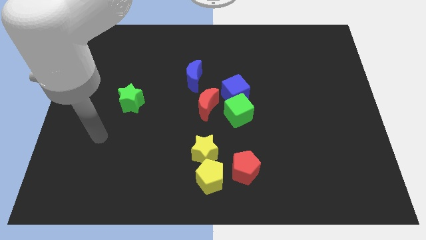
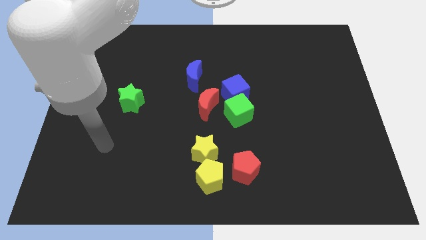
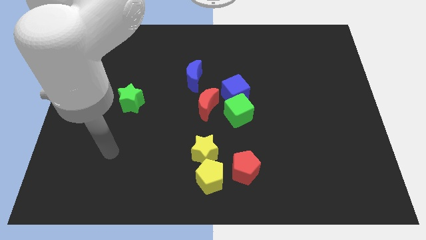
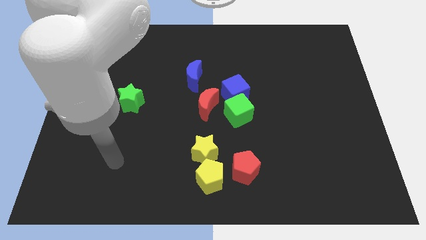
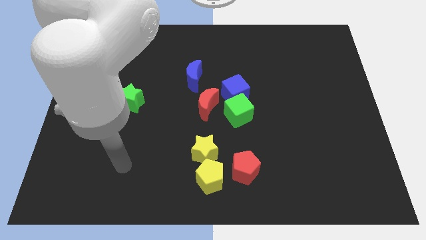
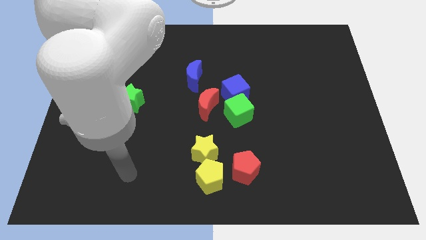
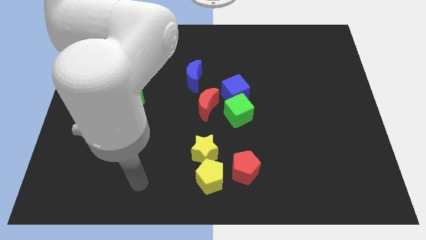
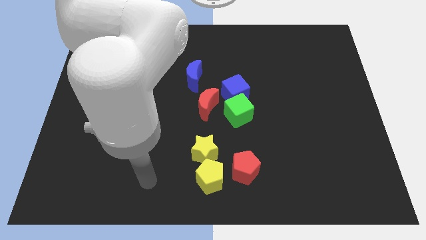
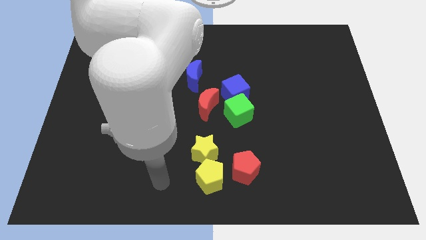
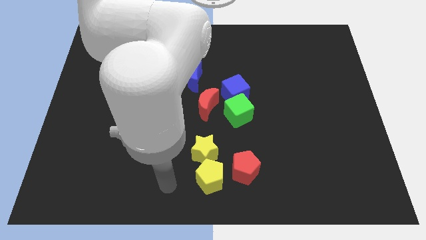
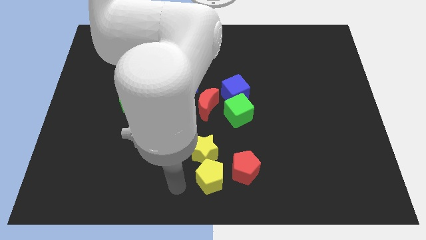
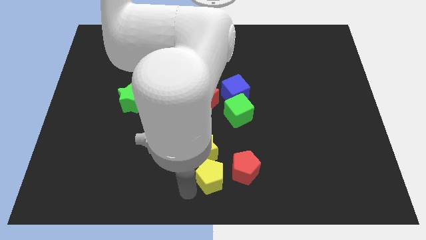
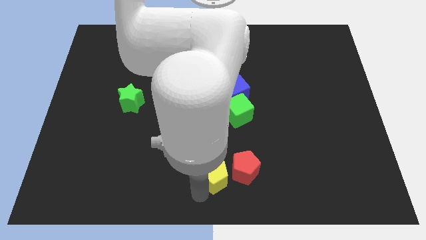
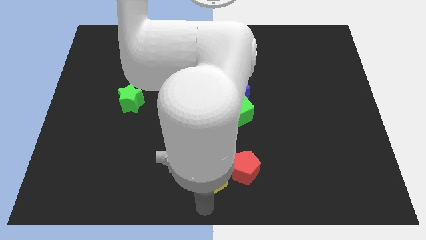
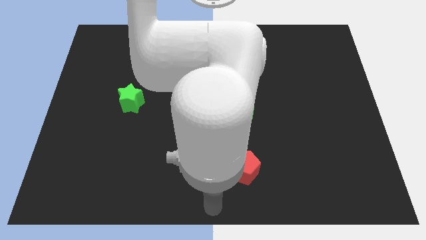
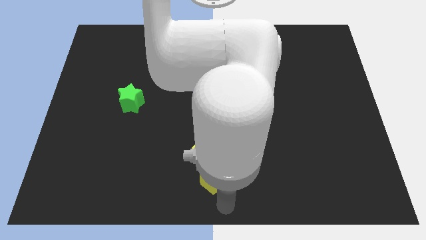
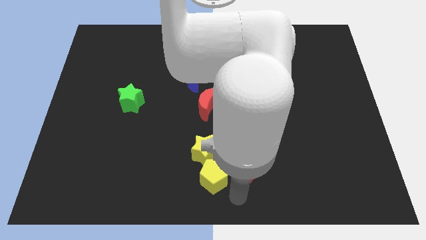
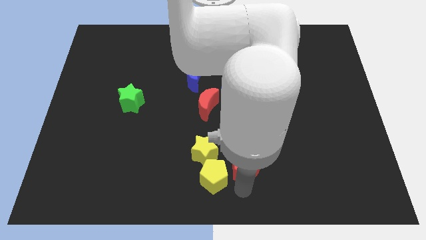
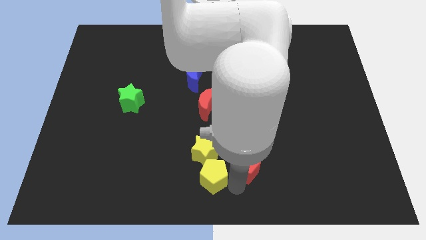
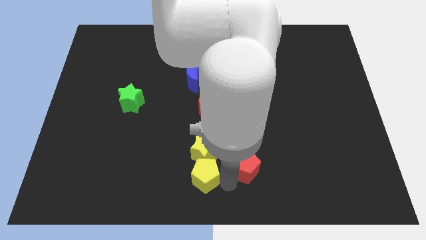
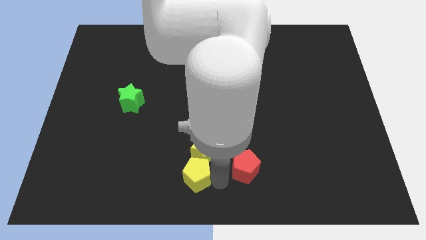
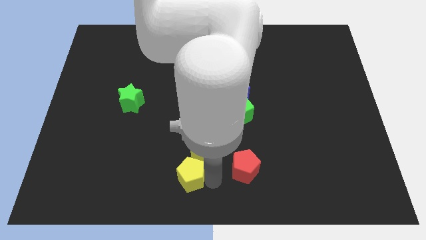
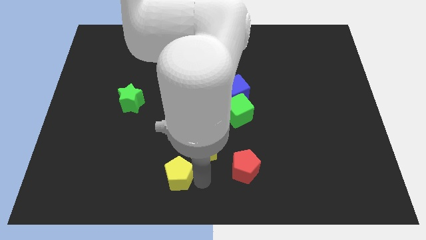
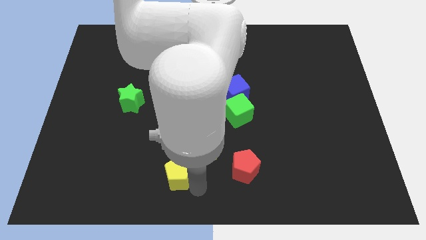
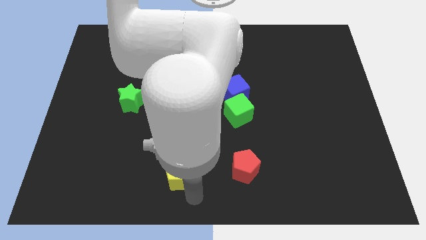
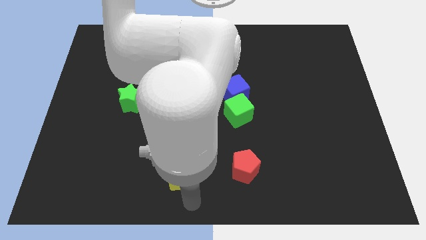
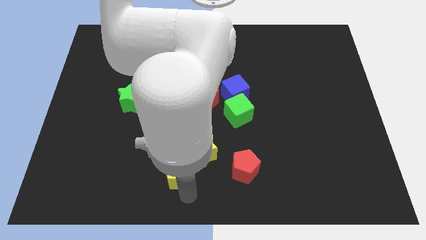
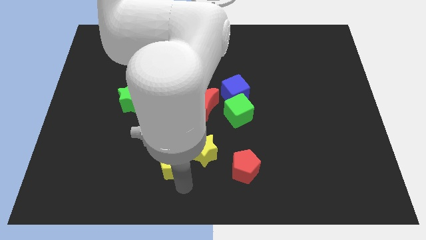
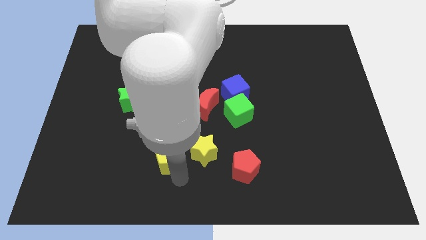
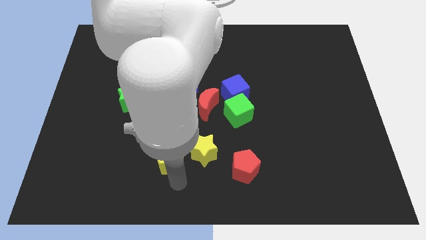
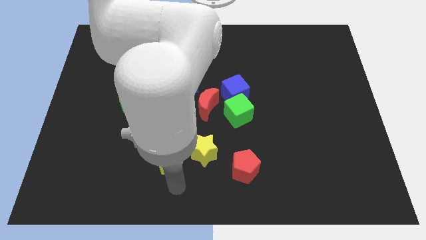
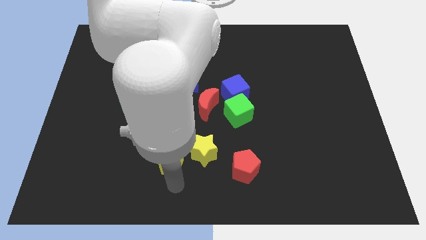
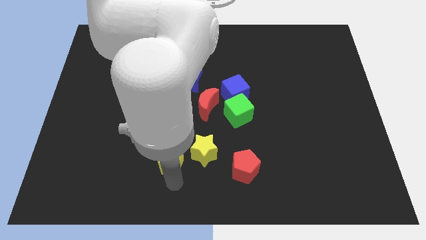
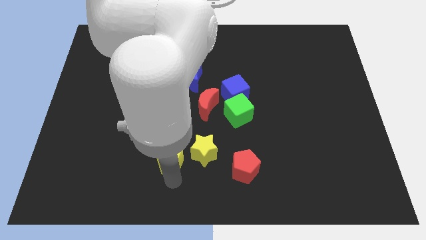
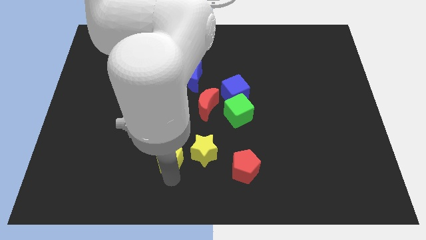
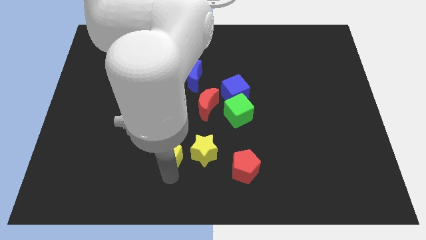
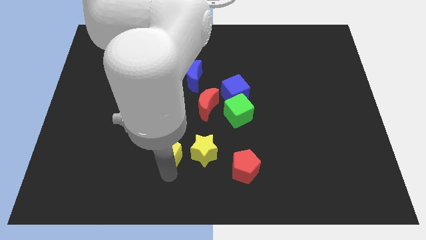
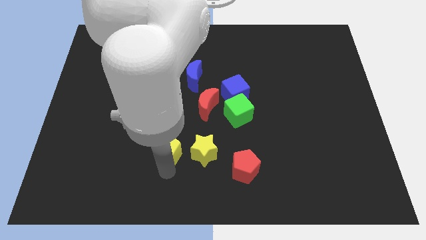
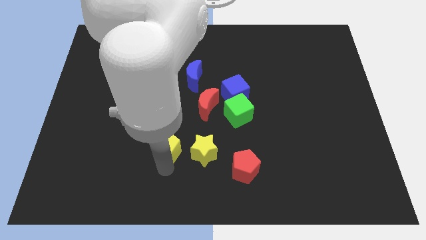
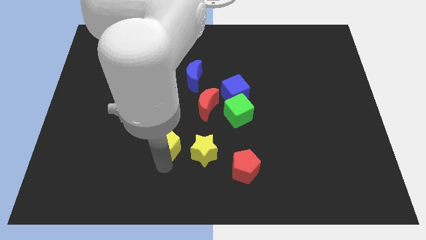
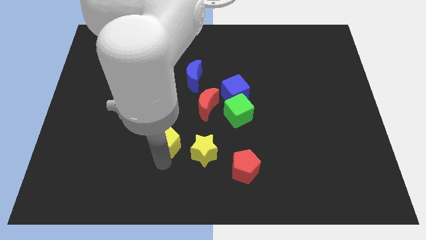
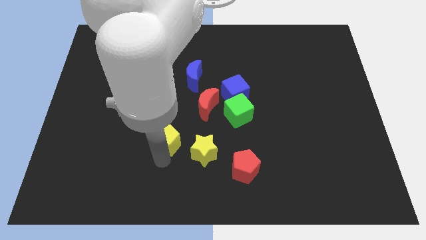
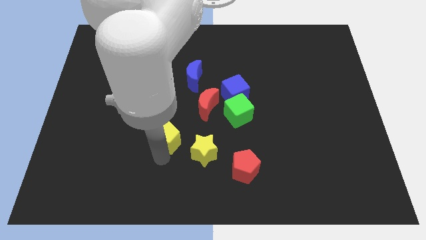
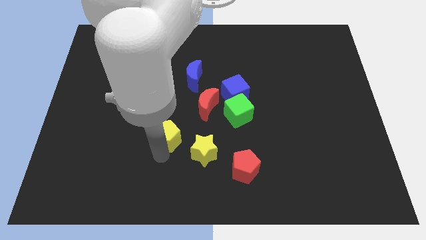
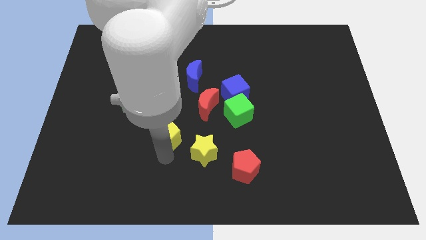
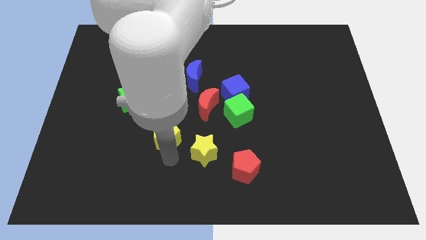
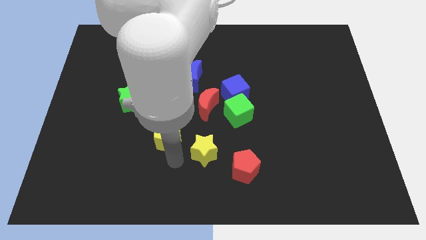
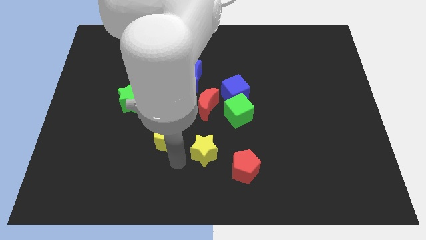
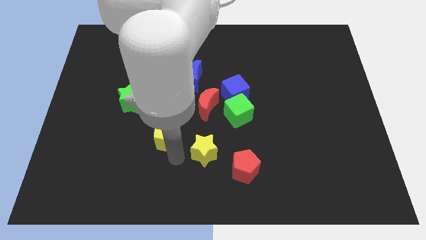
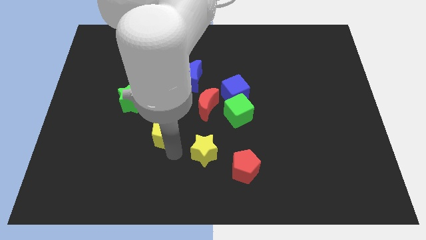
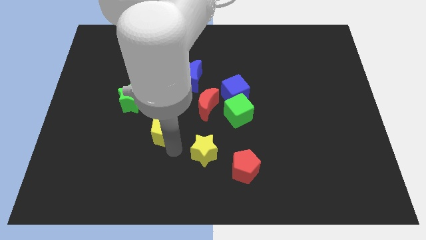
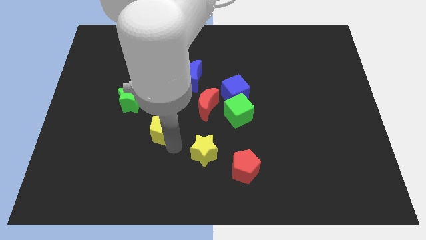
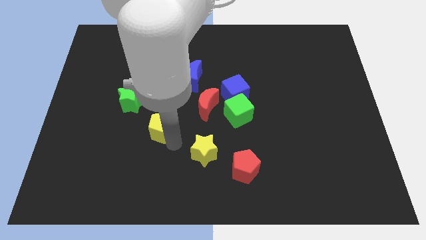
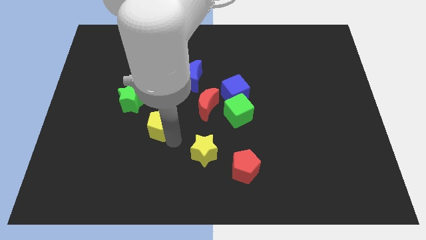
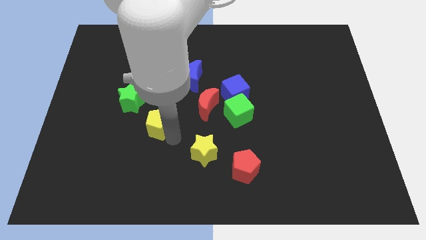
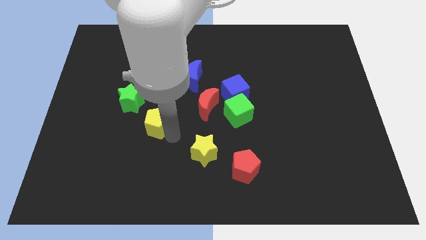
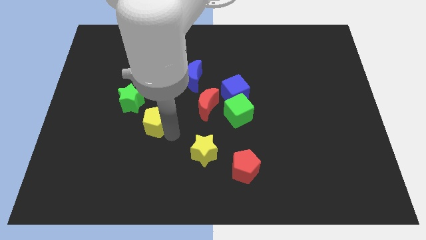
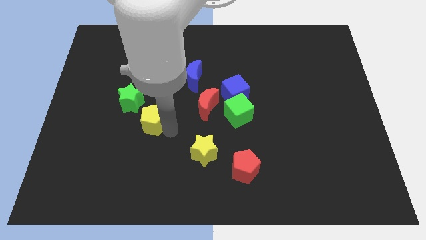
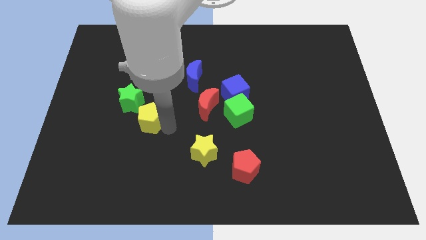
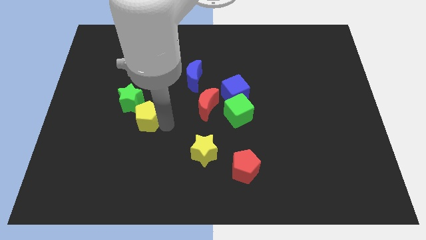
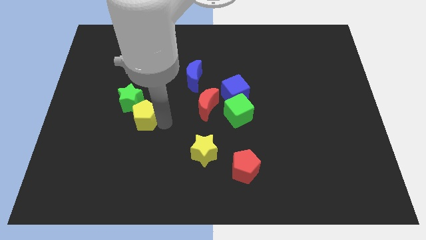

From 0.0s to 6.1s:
move the yellow pentagon close to the green star

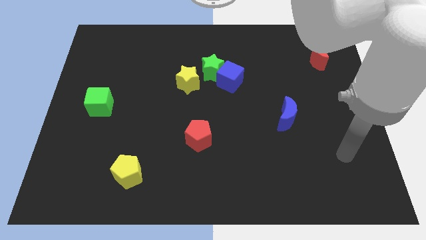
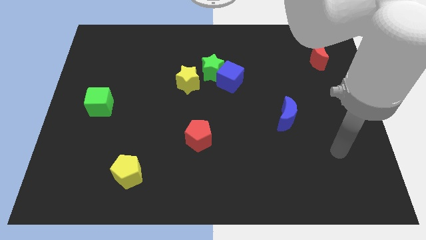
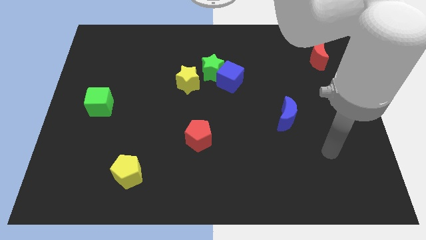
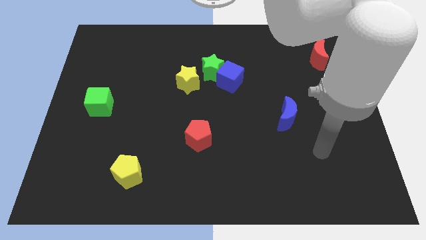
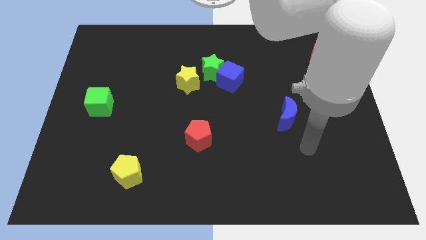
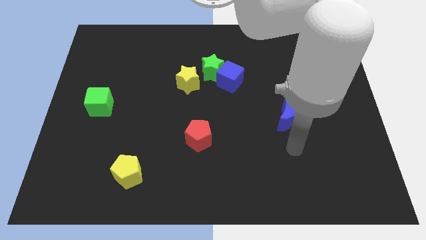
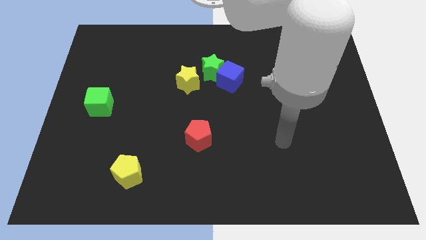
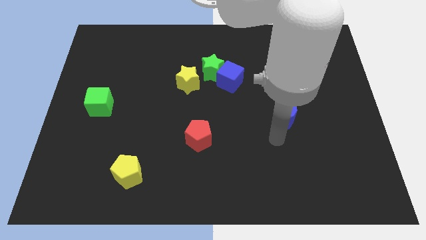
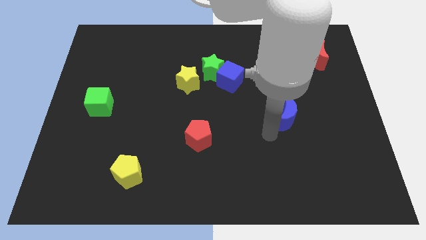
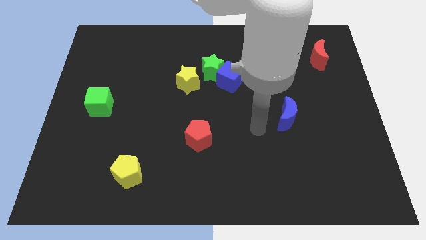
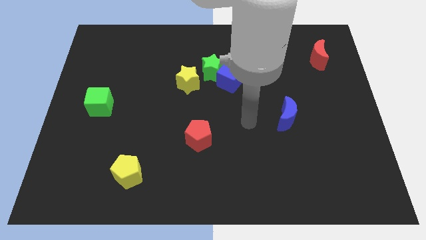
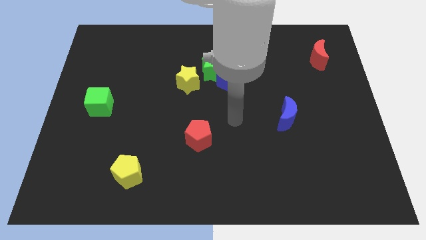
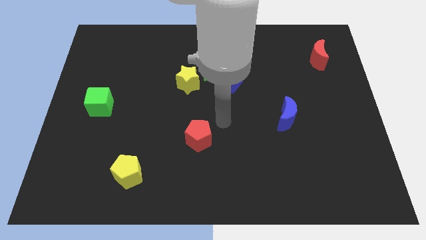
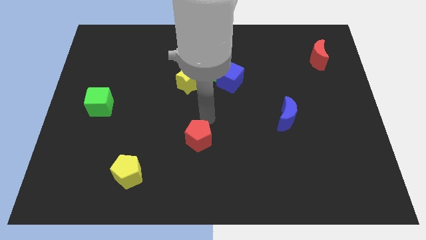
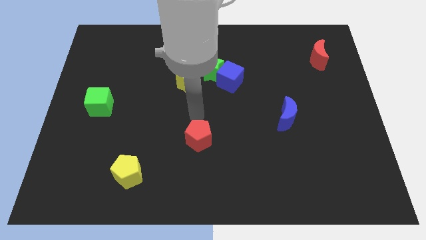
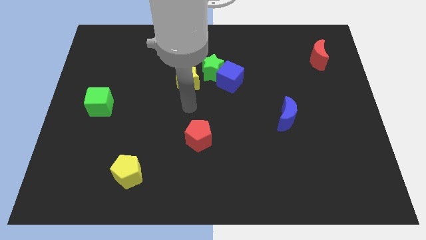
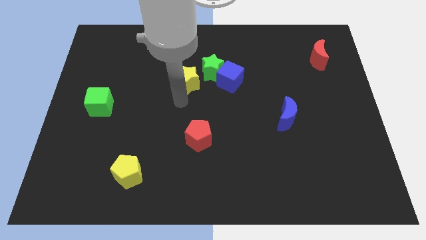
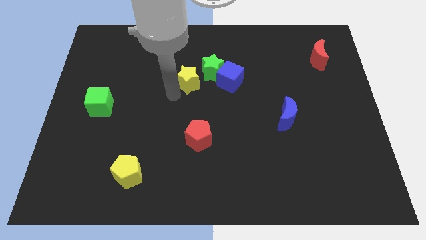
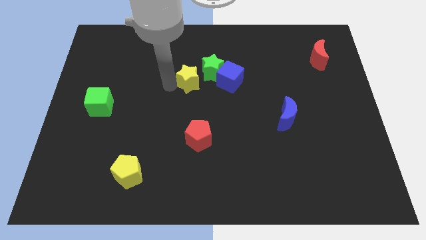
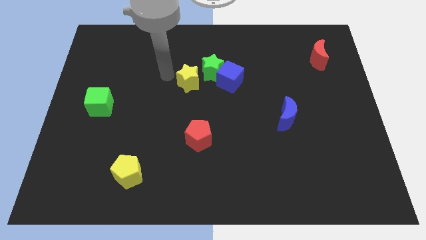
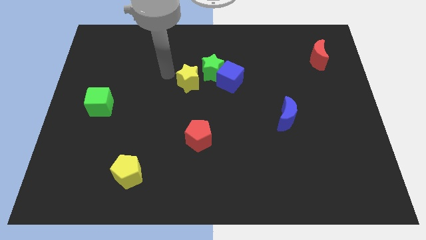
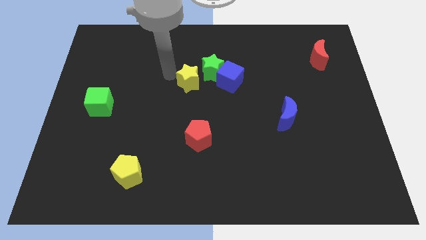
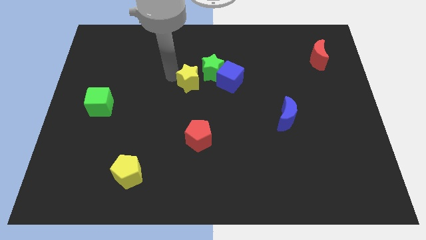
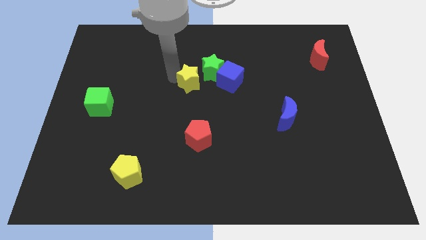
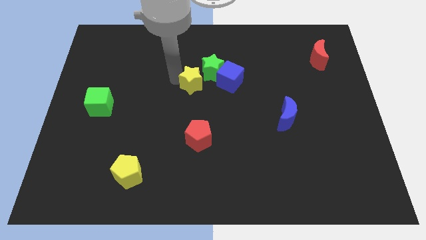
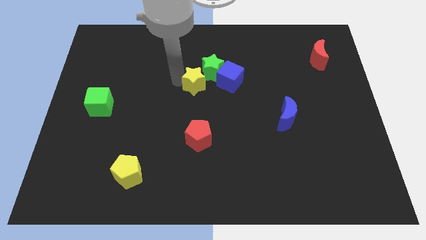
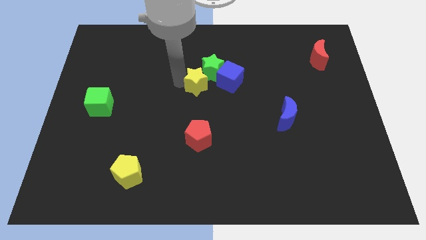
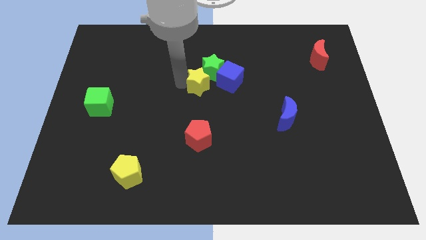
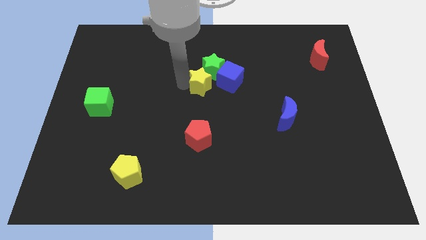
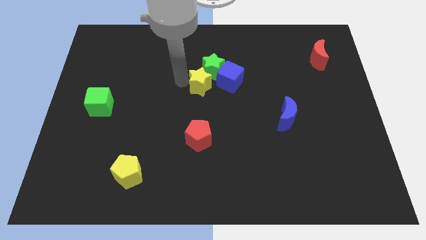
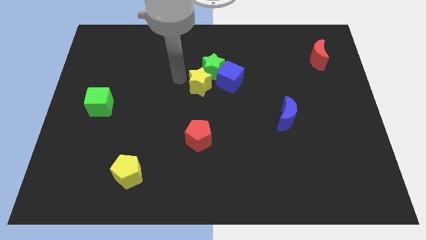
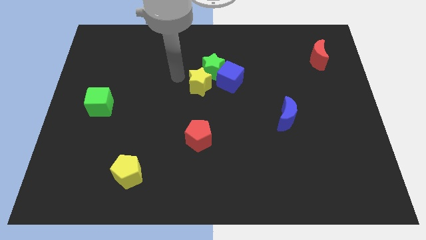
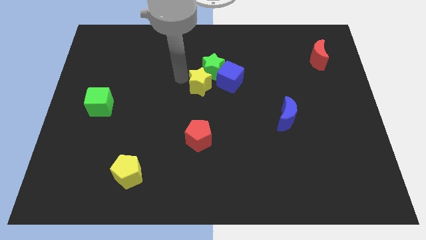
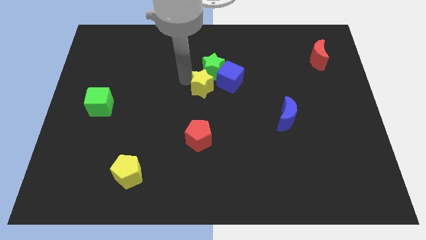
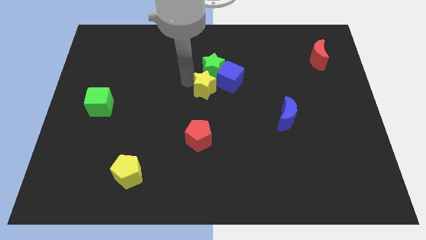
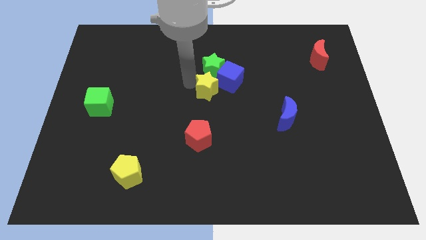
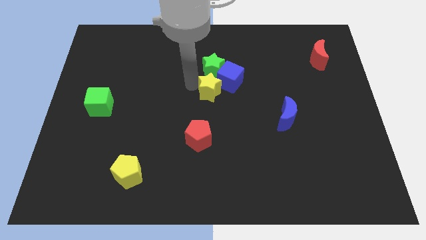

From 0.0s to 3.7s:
slide the yellow star to the blue cube
